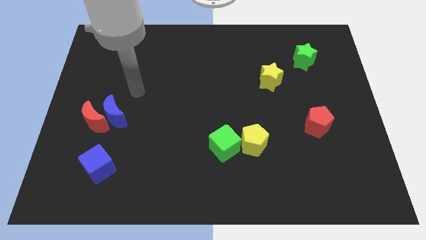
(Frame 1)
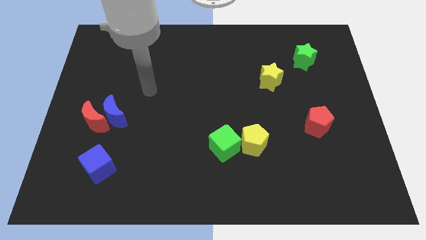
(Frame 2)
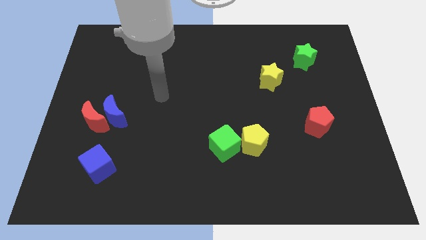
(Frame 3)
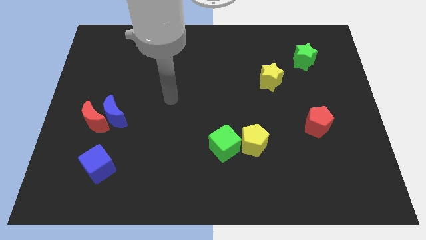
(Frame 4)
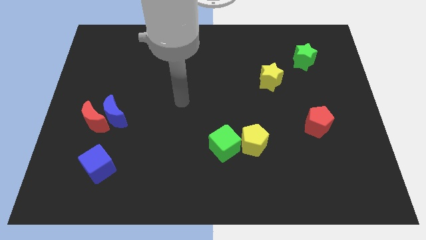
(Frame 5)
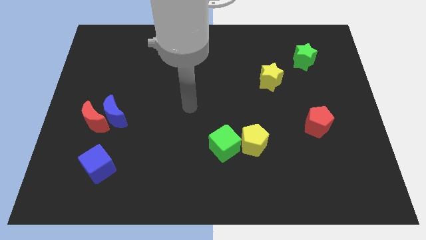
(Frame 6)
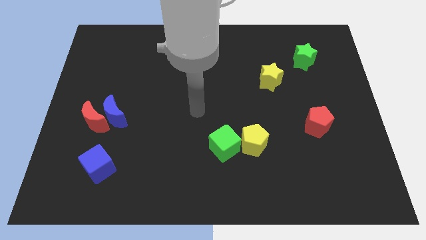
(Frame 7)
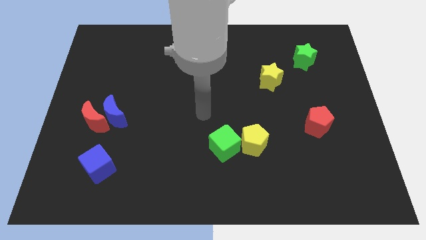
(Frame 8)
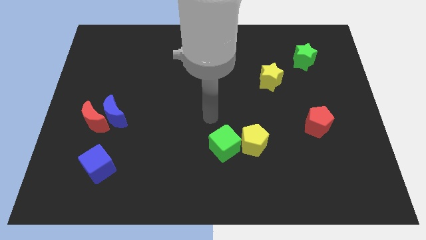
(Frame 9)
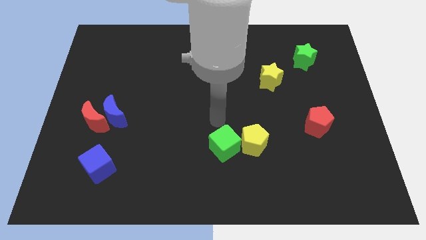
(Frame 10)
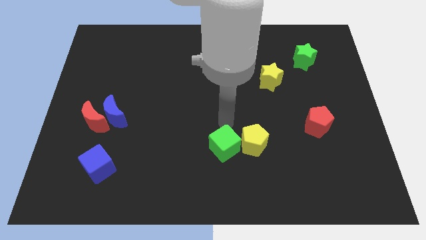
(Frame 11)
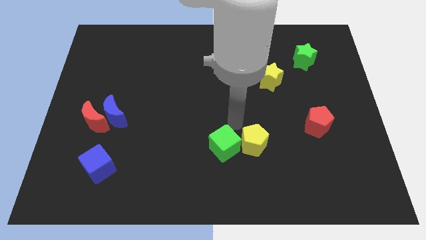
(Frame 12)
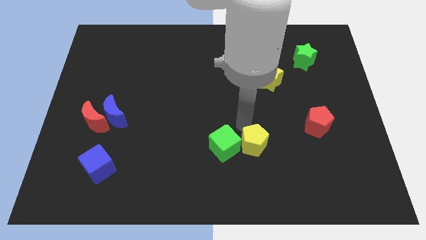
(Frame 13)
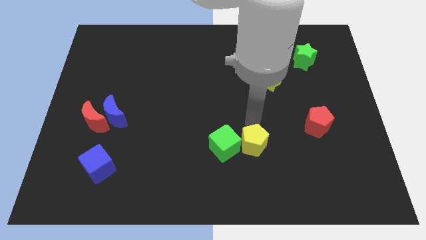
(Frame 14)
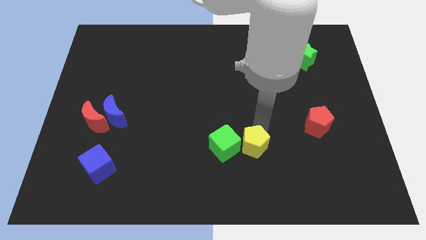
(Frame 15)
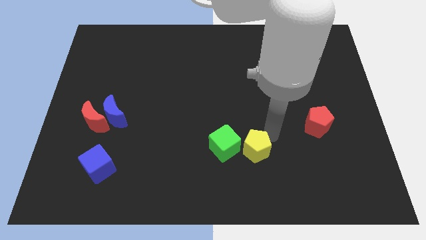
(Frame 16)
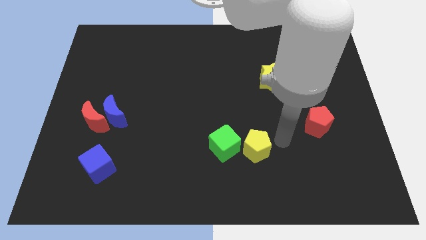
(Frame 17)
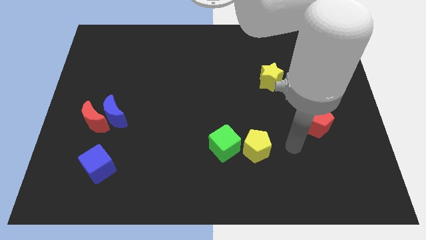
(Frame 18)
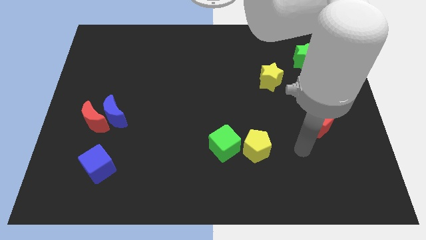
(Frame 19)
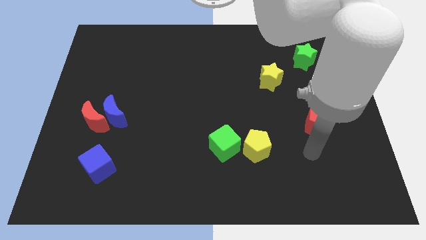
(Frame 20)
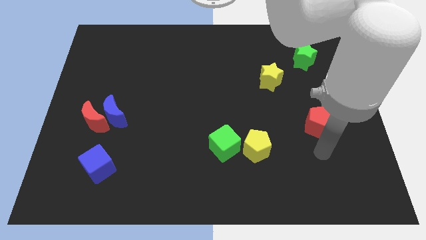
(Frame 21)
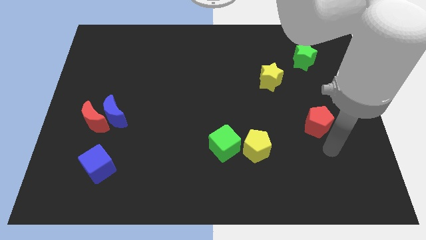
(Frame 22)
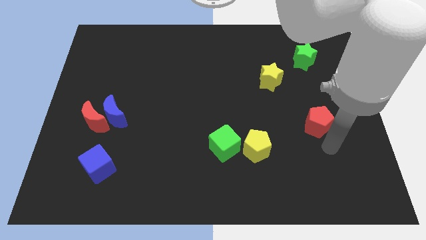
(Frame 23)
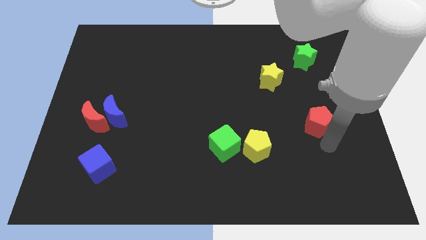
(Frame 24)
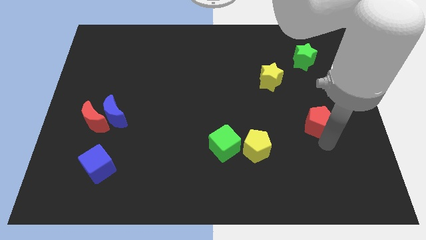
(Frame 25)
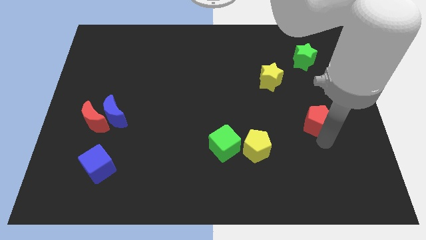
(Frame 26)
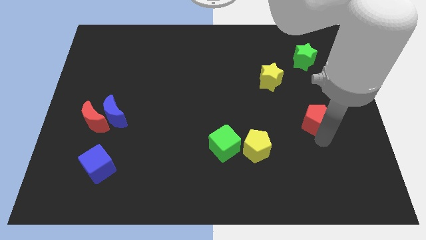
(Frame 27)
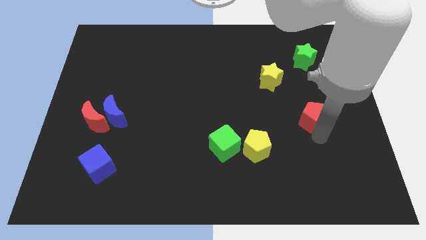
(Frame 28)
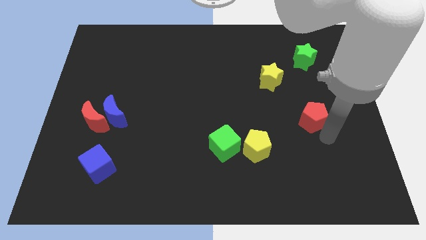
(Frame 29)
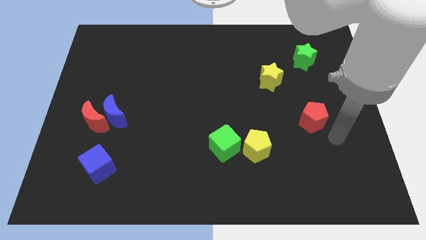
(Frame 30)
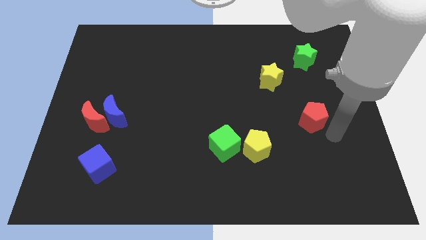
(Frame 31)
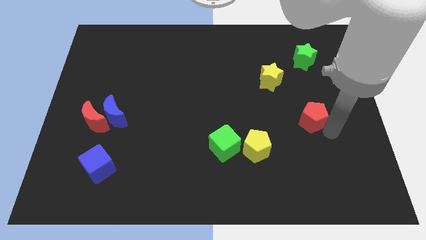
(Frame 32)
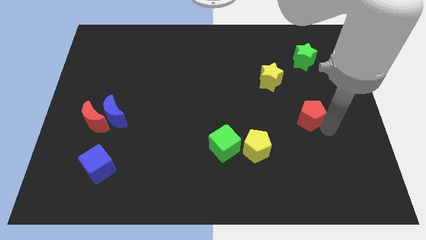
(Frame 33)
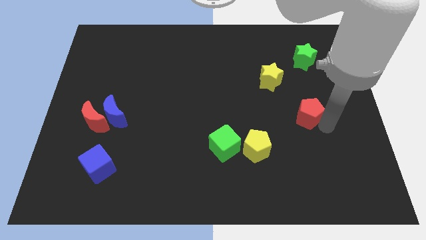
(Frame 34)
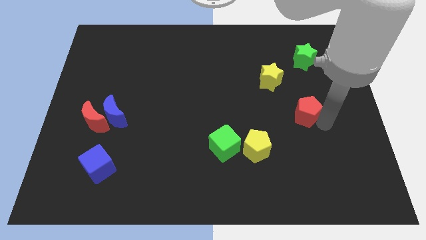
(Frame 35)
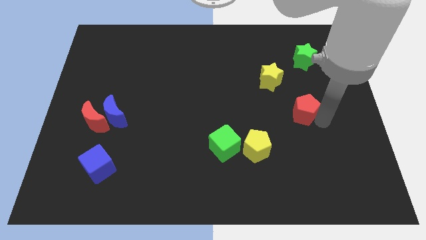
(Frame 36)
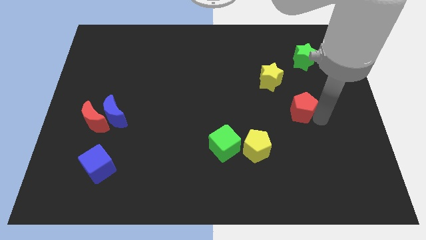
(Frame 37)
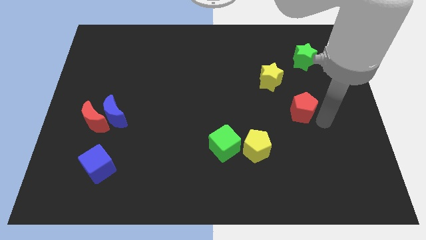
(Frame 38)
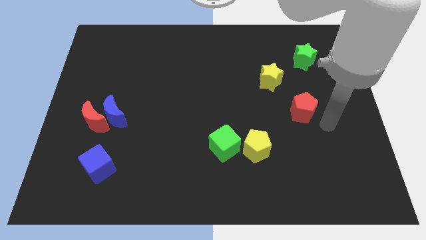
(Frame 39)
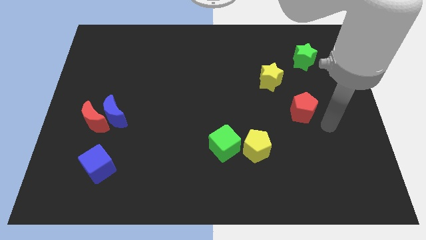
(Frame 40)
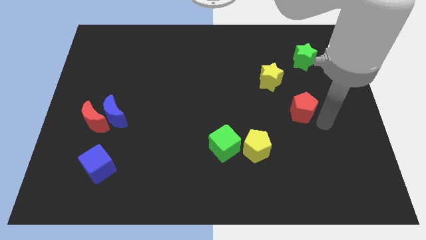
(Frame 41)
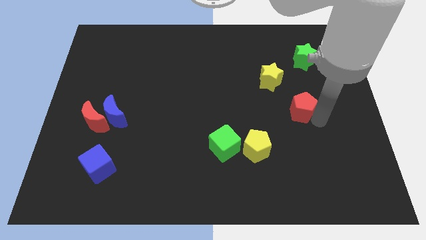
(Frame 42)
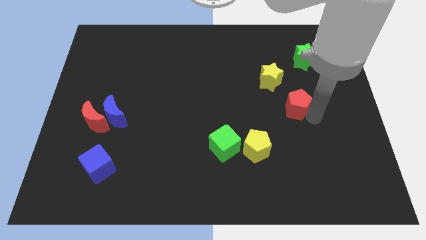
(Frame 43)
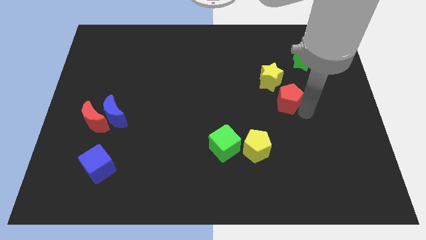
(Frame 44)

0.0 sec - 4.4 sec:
push the red pentagon diagonally upwards and to the left somewhat

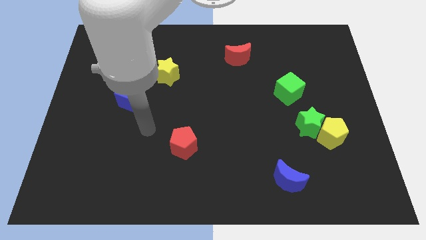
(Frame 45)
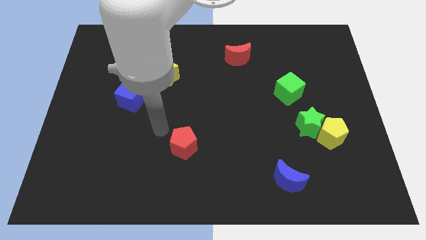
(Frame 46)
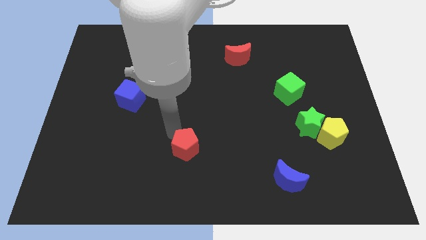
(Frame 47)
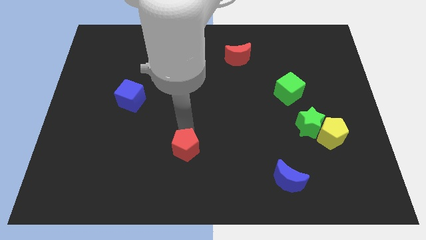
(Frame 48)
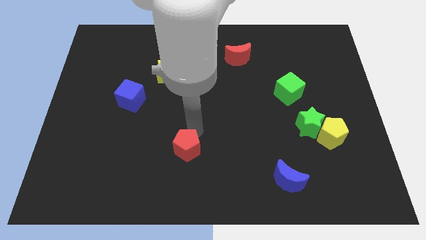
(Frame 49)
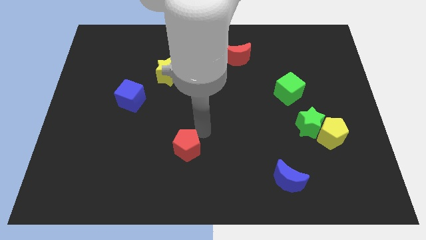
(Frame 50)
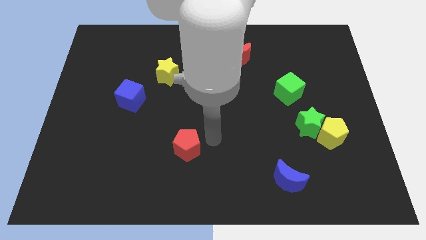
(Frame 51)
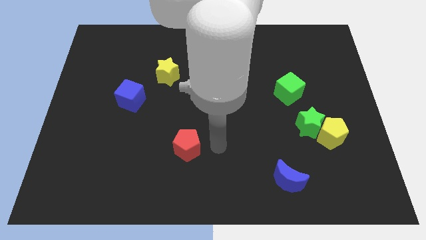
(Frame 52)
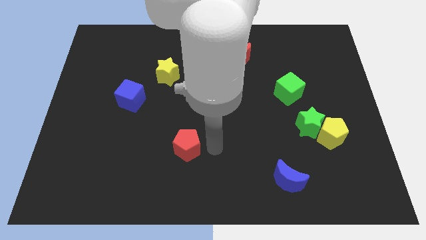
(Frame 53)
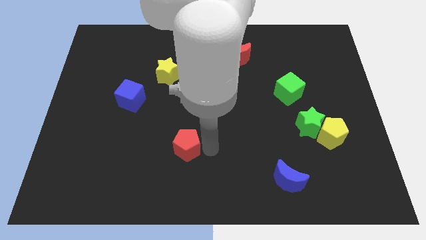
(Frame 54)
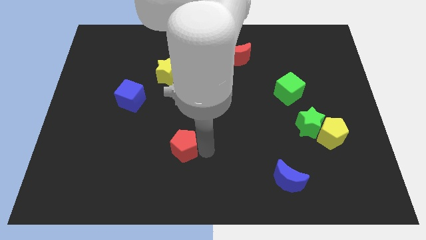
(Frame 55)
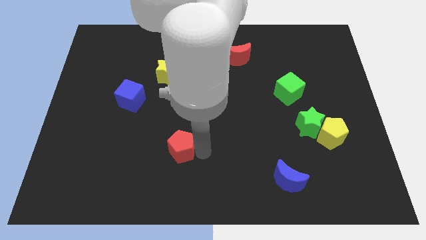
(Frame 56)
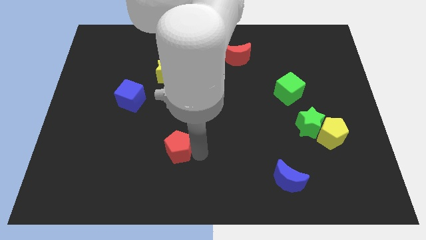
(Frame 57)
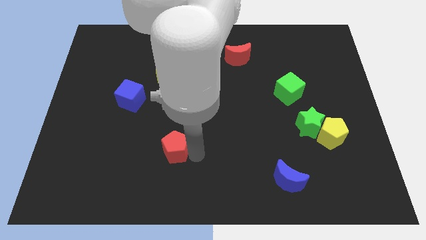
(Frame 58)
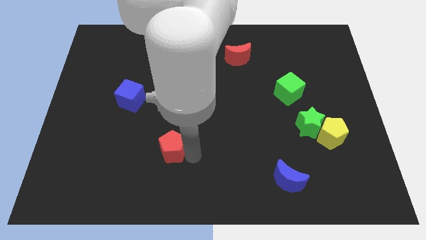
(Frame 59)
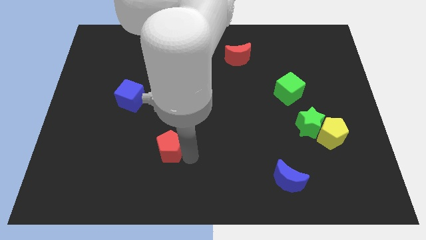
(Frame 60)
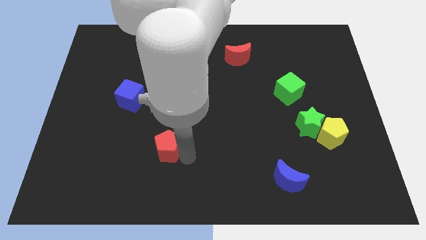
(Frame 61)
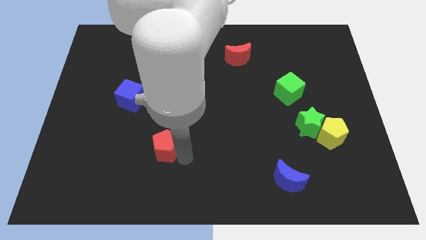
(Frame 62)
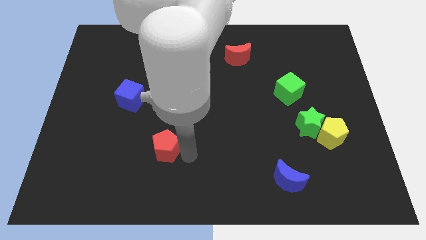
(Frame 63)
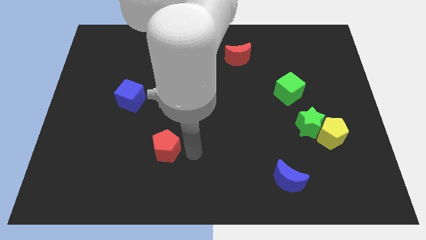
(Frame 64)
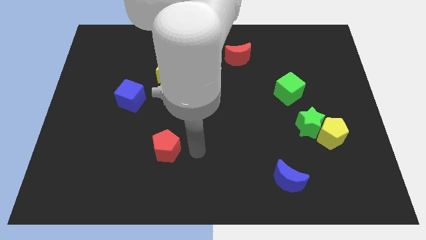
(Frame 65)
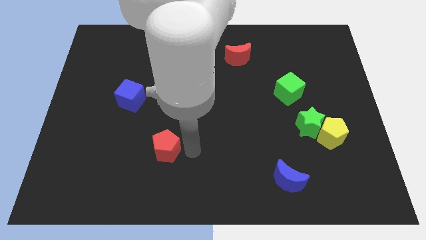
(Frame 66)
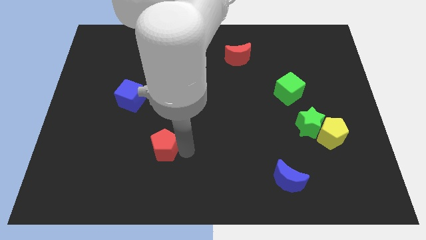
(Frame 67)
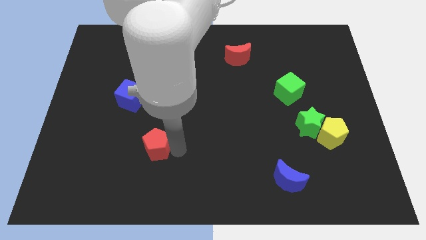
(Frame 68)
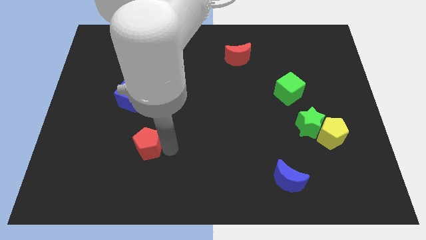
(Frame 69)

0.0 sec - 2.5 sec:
move the red pentagon to the left a little bit

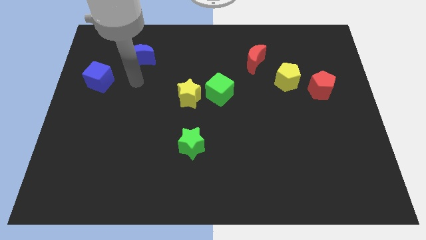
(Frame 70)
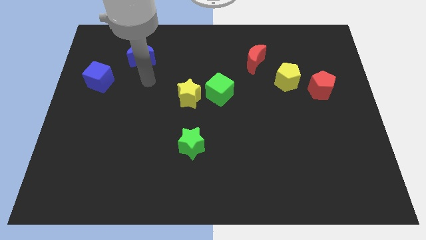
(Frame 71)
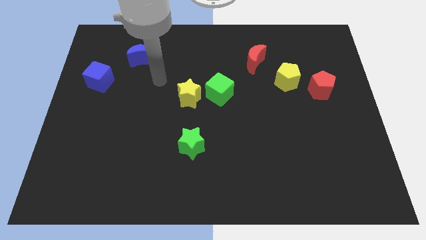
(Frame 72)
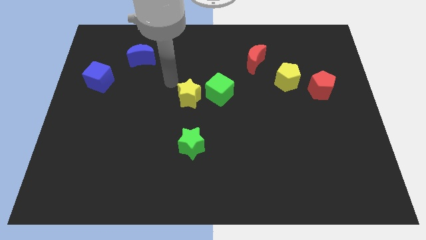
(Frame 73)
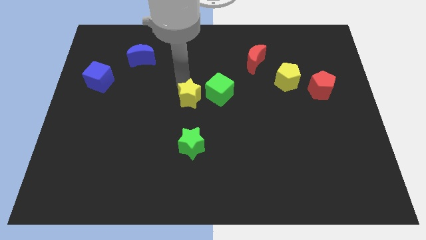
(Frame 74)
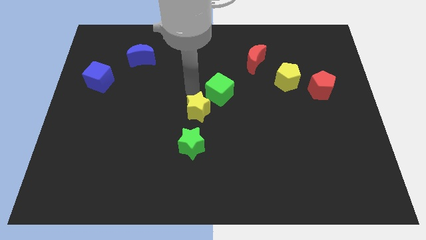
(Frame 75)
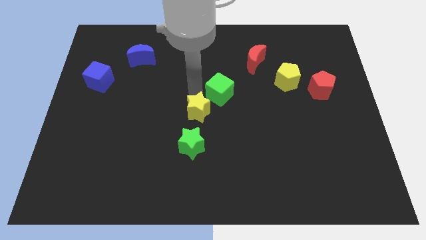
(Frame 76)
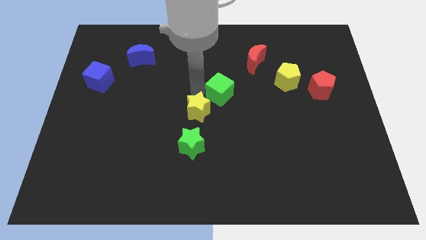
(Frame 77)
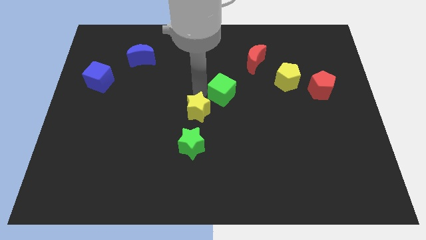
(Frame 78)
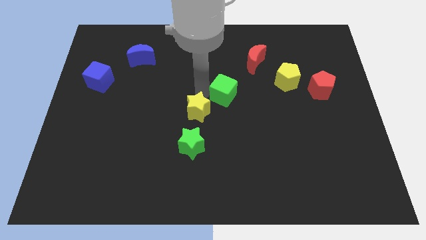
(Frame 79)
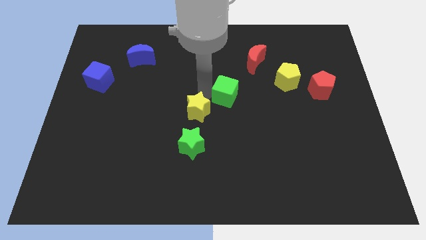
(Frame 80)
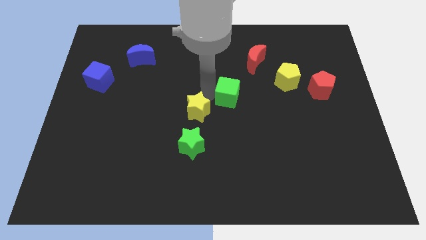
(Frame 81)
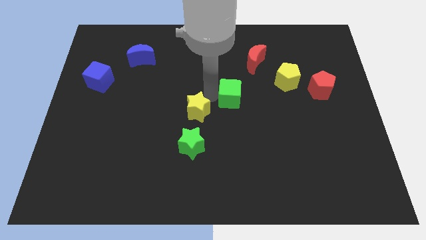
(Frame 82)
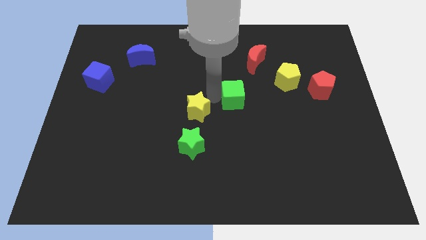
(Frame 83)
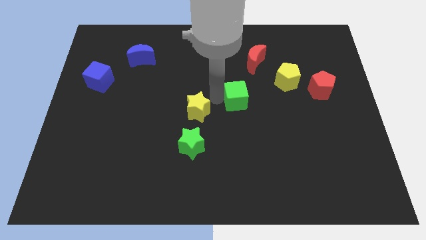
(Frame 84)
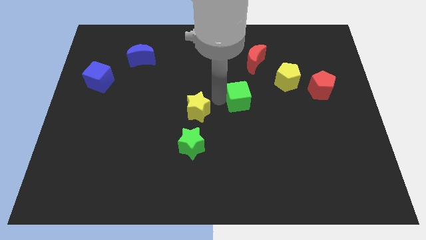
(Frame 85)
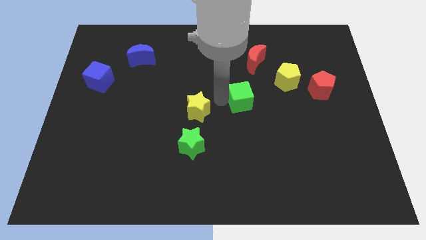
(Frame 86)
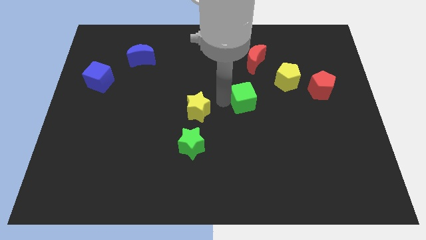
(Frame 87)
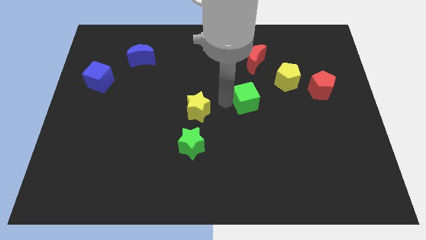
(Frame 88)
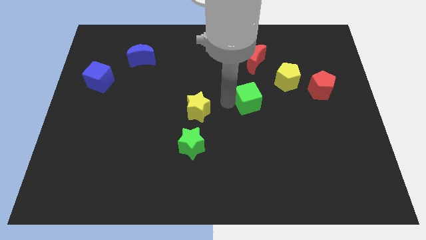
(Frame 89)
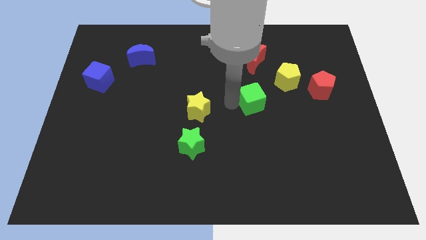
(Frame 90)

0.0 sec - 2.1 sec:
move the green cube right a bit
